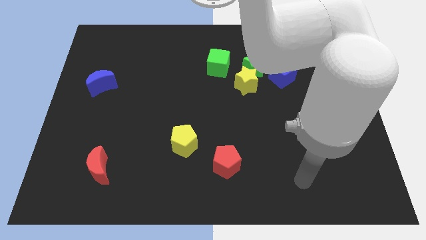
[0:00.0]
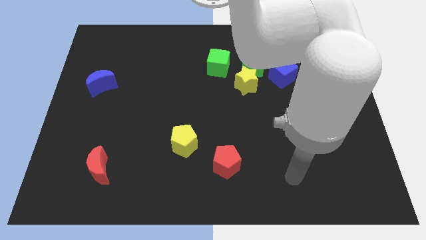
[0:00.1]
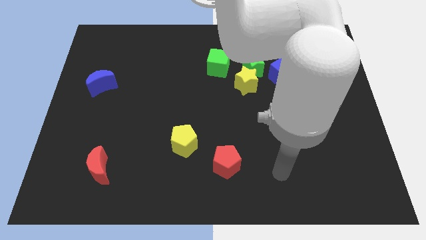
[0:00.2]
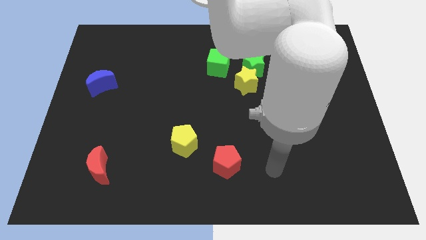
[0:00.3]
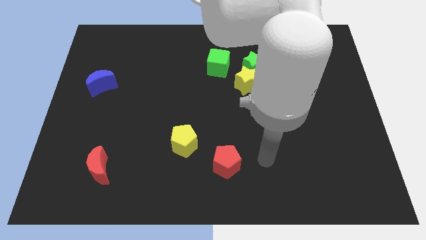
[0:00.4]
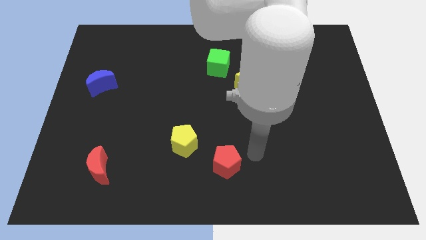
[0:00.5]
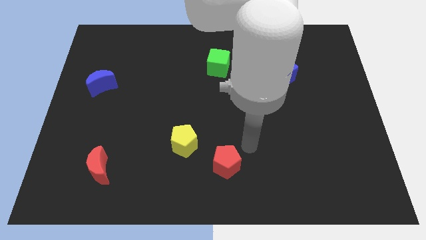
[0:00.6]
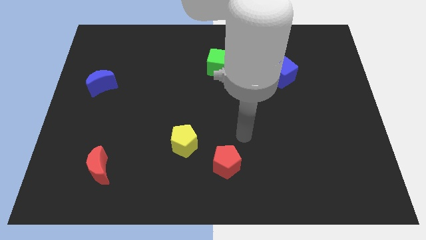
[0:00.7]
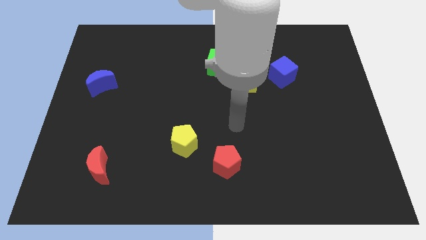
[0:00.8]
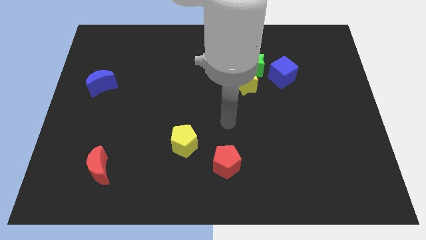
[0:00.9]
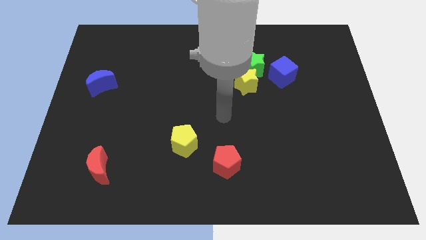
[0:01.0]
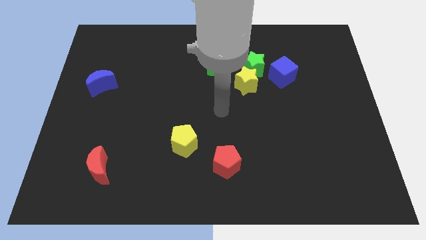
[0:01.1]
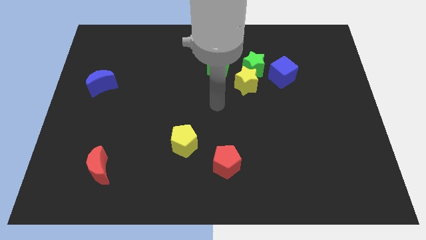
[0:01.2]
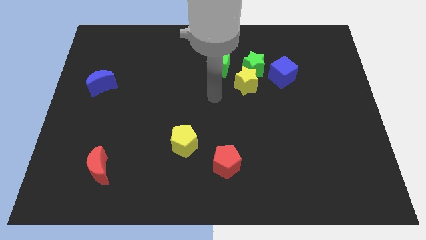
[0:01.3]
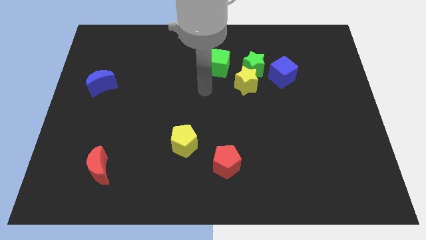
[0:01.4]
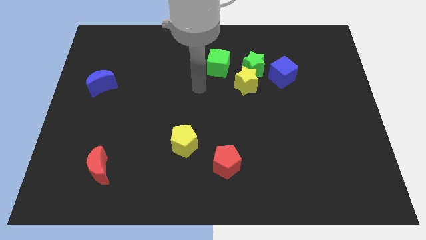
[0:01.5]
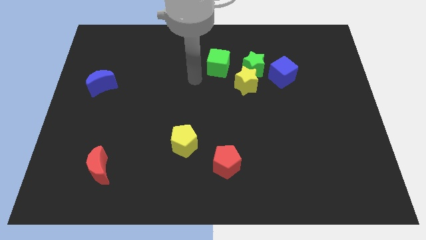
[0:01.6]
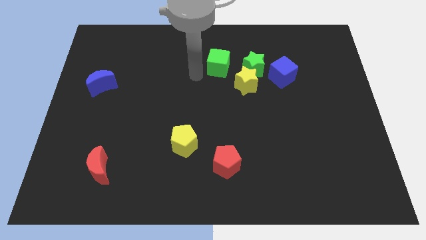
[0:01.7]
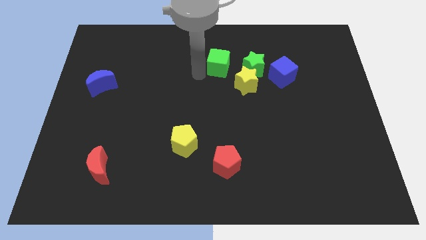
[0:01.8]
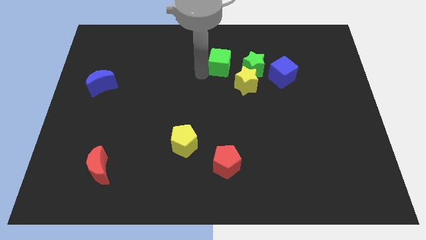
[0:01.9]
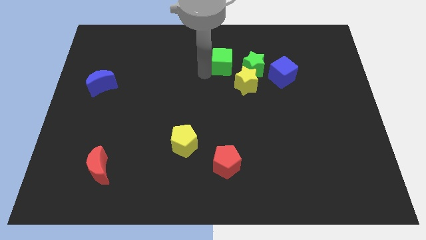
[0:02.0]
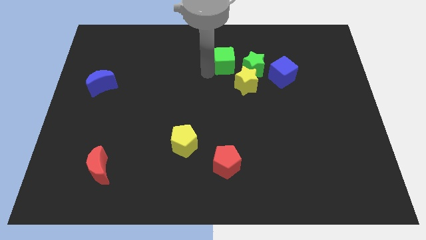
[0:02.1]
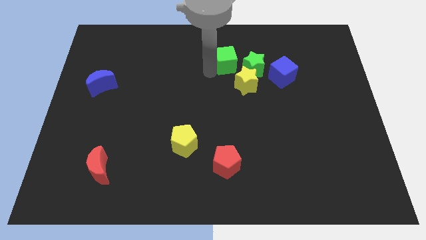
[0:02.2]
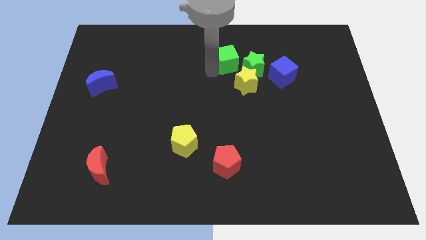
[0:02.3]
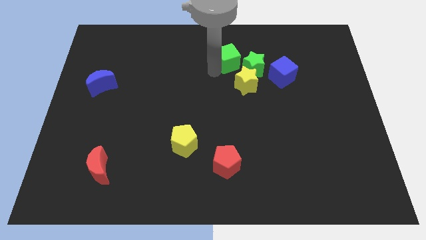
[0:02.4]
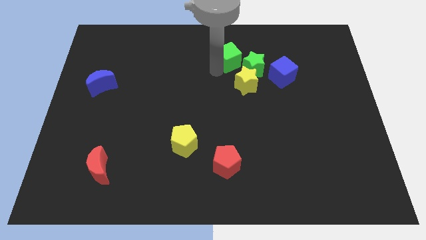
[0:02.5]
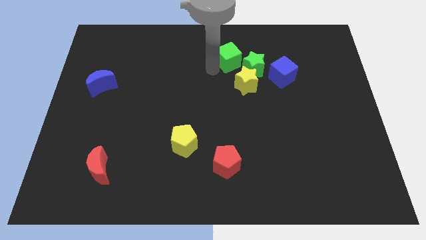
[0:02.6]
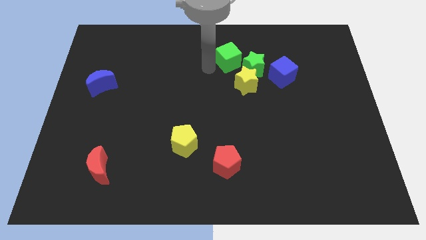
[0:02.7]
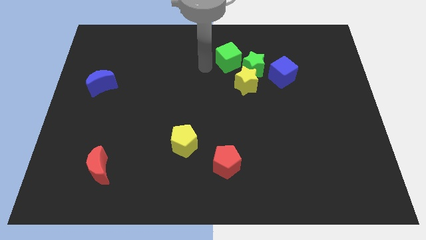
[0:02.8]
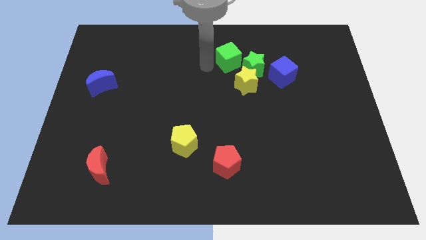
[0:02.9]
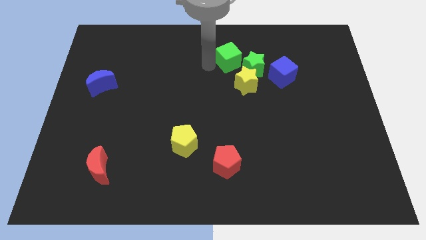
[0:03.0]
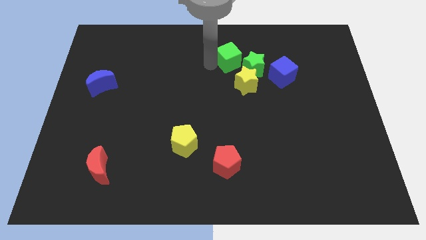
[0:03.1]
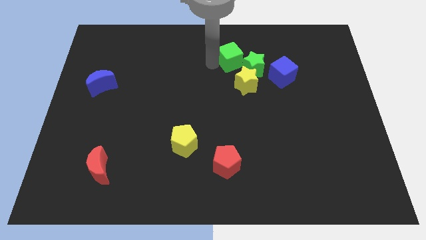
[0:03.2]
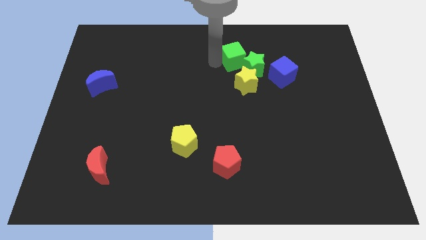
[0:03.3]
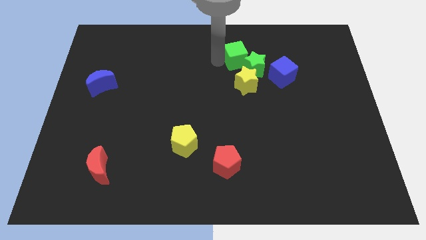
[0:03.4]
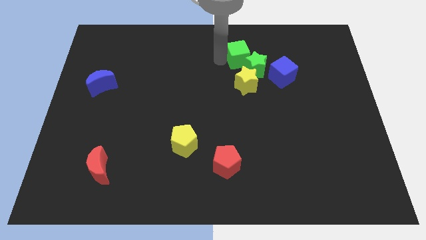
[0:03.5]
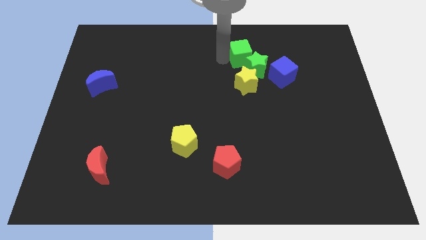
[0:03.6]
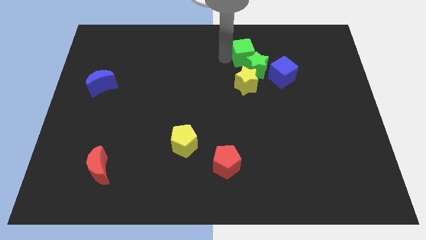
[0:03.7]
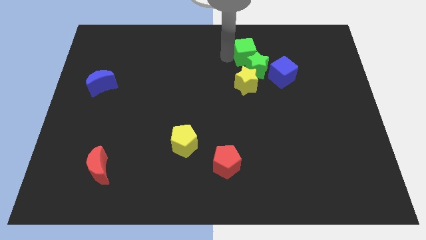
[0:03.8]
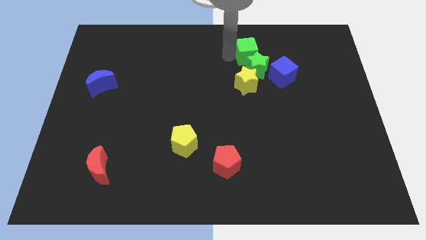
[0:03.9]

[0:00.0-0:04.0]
slide the green cube right a bit

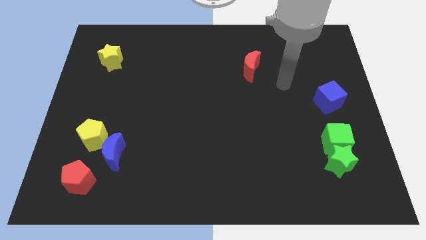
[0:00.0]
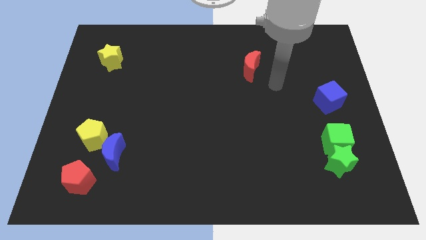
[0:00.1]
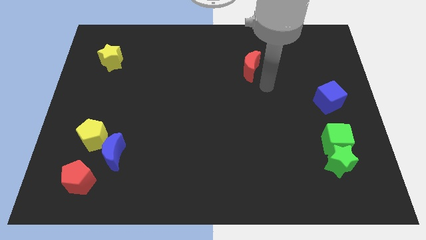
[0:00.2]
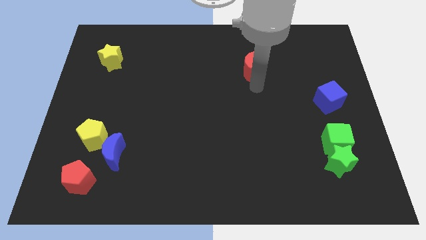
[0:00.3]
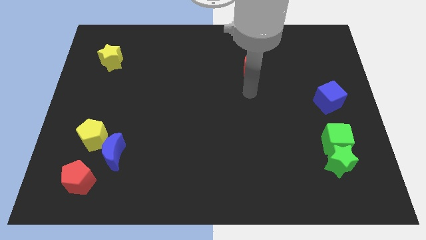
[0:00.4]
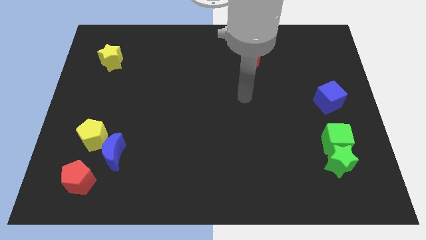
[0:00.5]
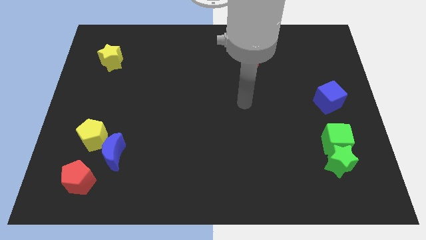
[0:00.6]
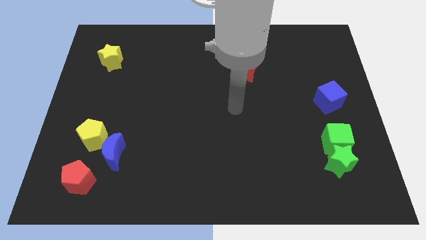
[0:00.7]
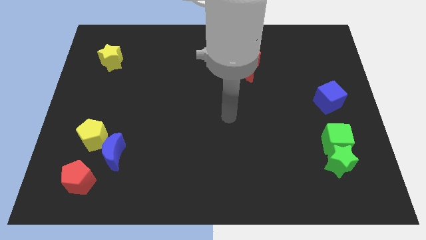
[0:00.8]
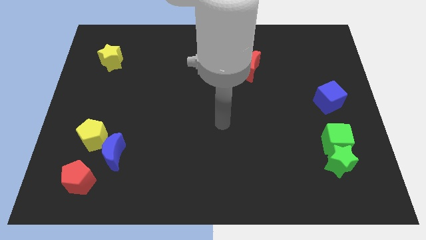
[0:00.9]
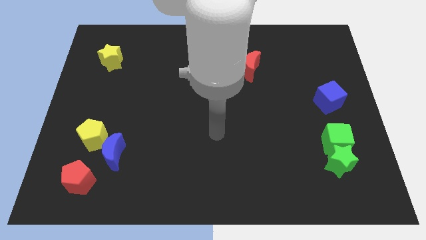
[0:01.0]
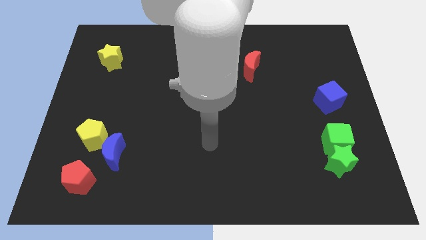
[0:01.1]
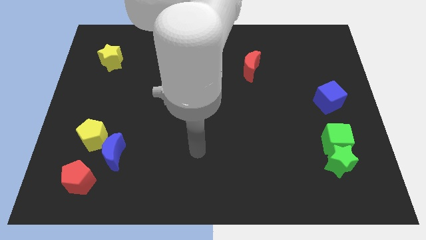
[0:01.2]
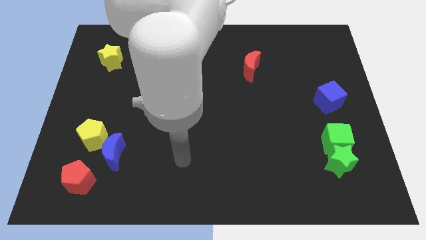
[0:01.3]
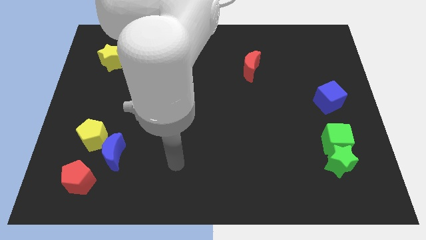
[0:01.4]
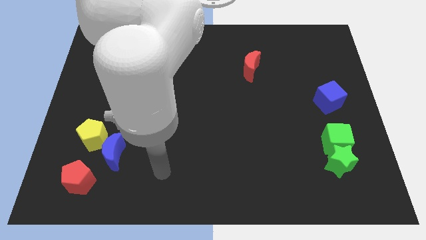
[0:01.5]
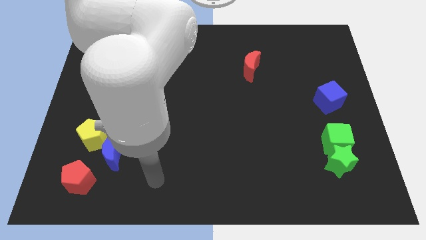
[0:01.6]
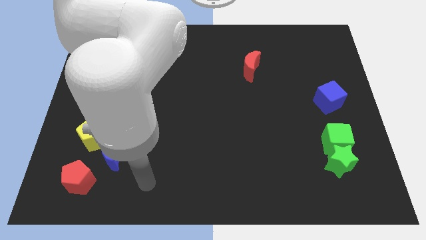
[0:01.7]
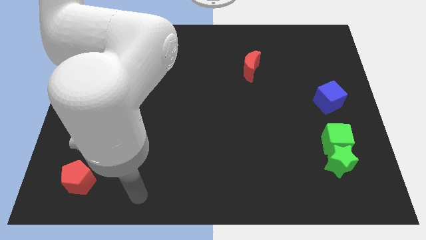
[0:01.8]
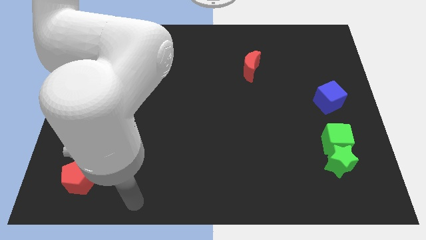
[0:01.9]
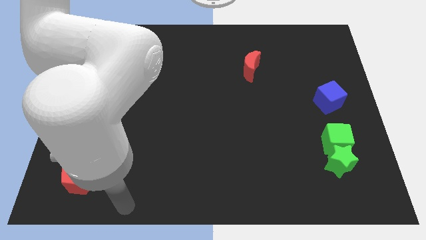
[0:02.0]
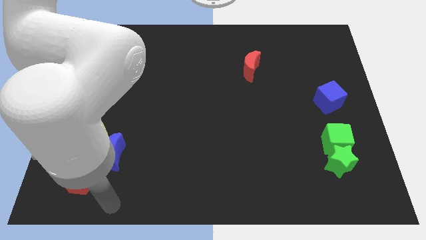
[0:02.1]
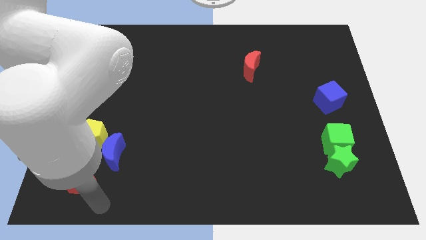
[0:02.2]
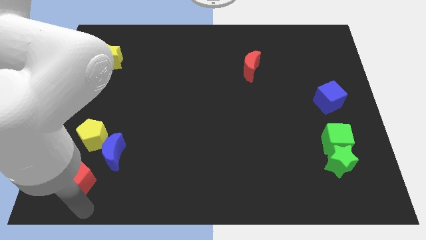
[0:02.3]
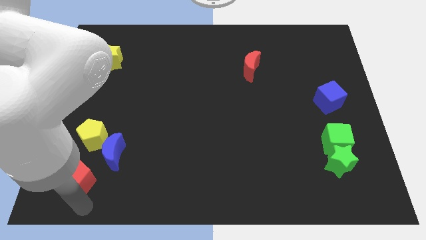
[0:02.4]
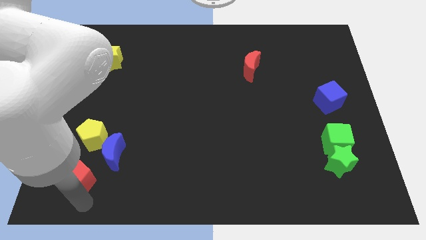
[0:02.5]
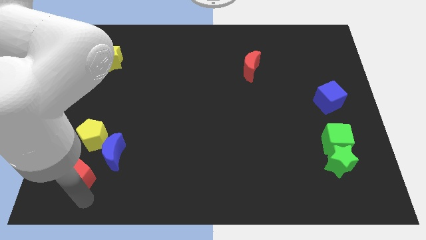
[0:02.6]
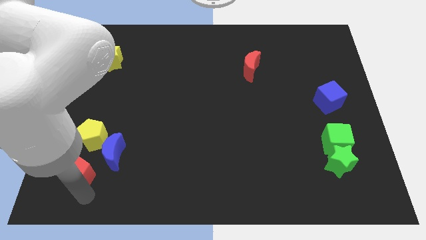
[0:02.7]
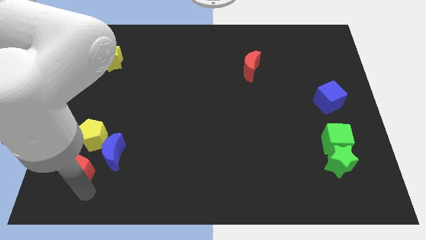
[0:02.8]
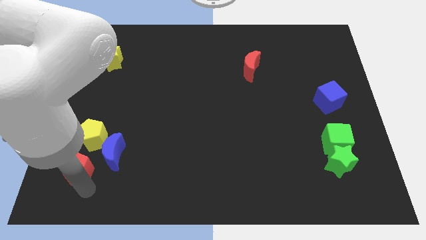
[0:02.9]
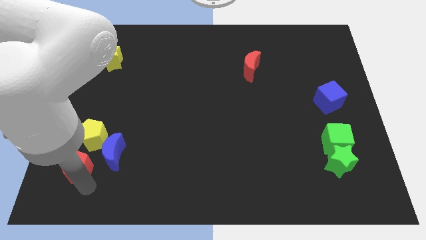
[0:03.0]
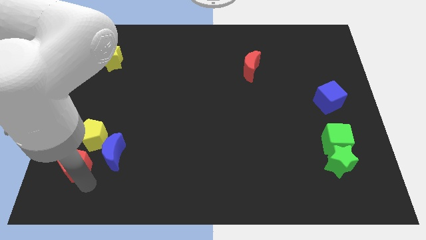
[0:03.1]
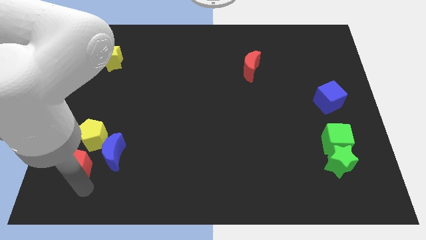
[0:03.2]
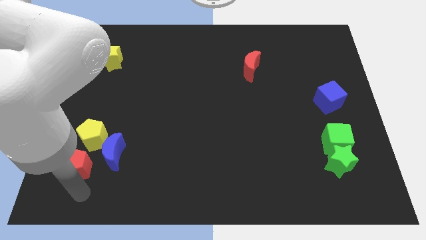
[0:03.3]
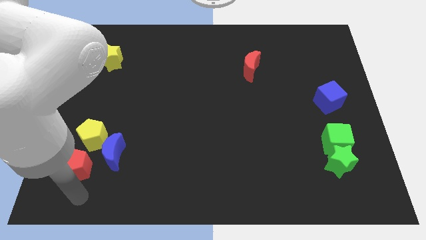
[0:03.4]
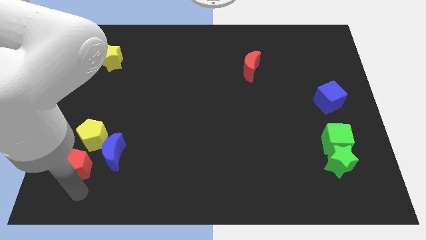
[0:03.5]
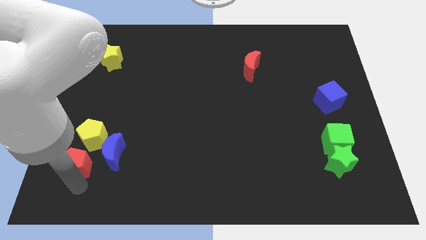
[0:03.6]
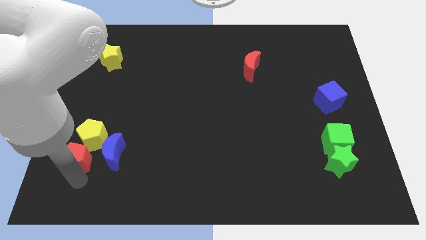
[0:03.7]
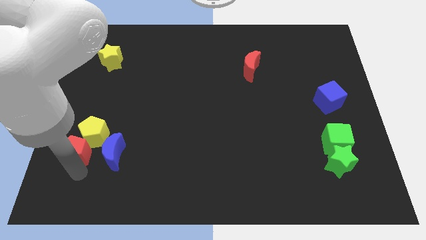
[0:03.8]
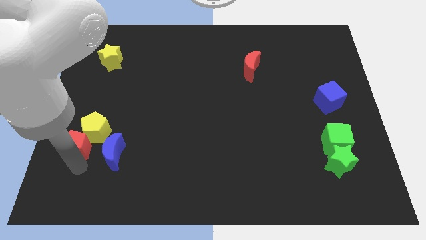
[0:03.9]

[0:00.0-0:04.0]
slightly move the red pentagon upwards
